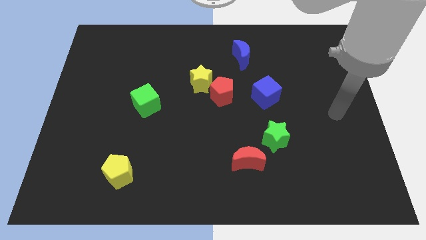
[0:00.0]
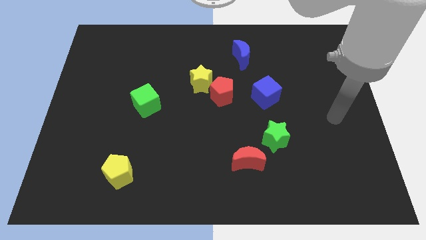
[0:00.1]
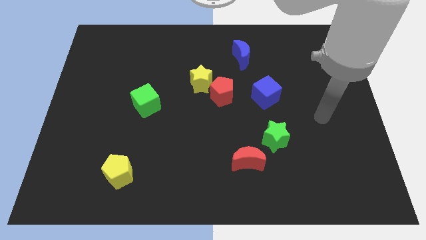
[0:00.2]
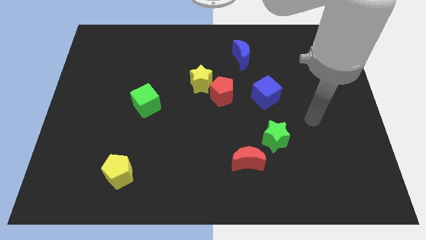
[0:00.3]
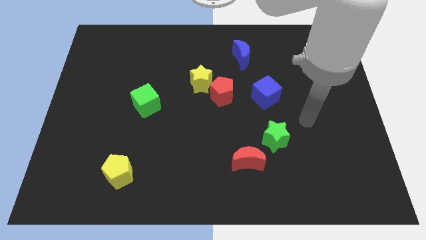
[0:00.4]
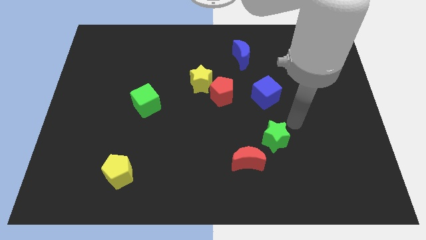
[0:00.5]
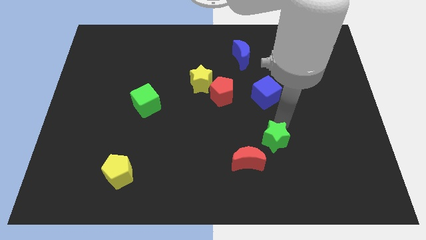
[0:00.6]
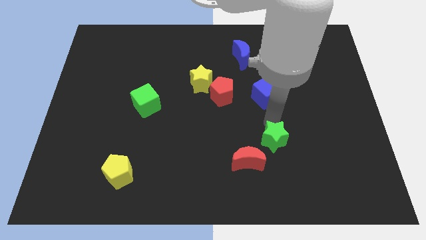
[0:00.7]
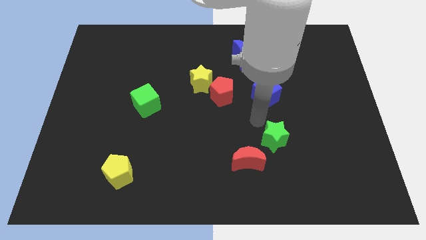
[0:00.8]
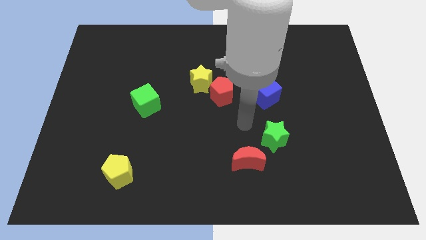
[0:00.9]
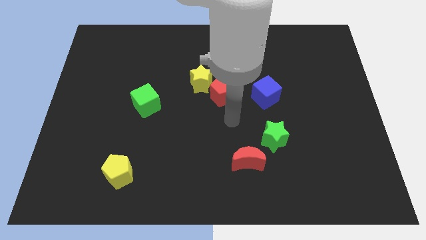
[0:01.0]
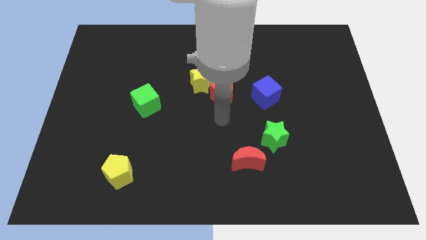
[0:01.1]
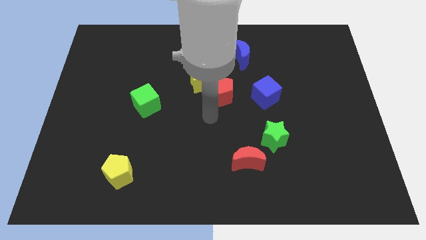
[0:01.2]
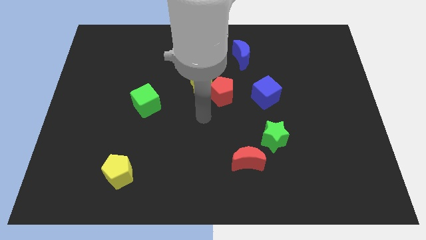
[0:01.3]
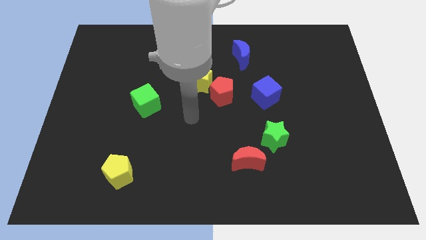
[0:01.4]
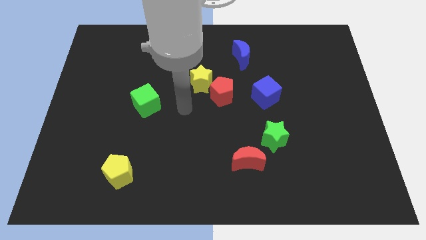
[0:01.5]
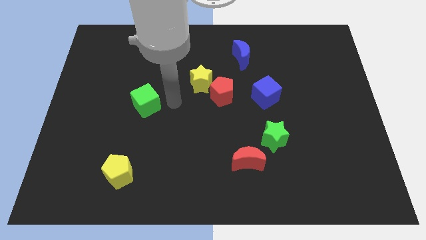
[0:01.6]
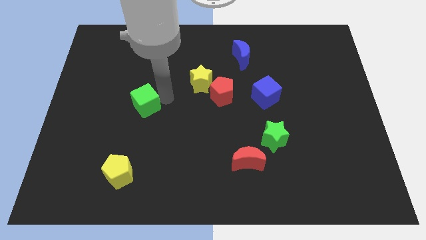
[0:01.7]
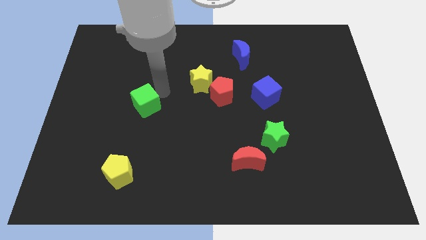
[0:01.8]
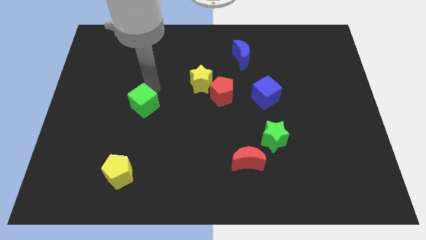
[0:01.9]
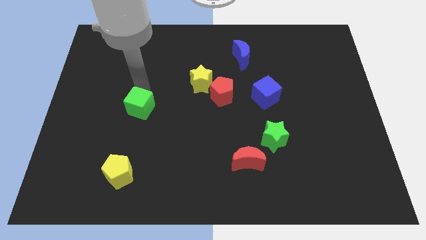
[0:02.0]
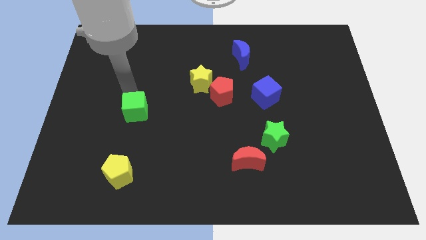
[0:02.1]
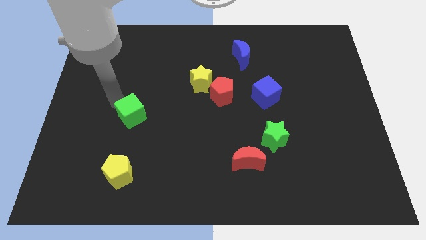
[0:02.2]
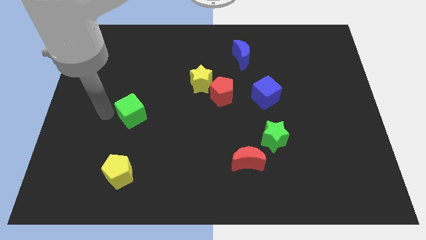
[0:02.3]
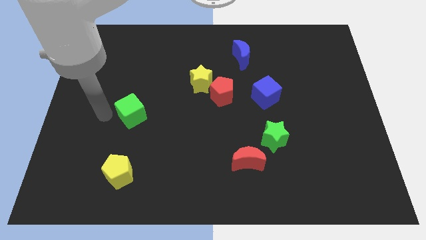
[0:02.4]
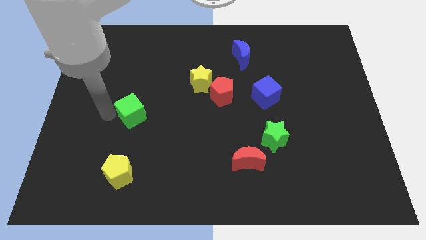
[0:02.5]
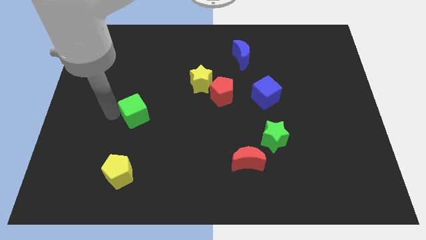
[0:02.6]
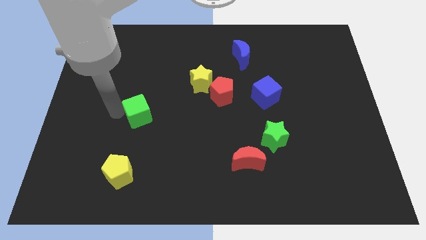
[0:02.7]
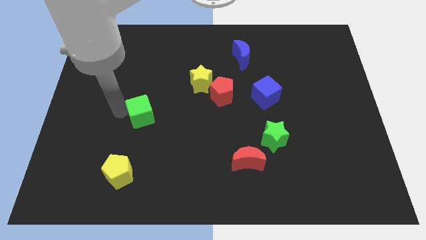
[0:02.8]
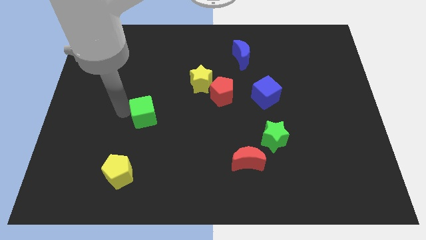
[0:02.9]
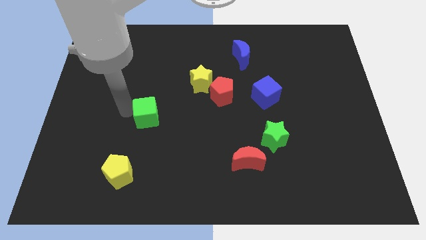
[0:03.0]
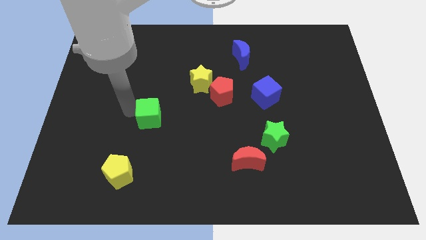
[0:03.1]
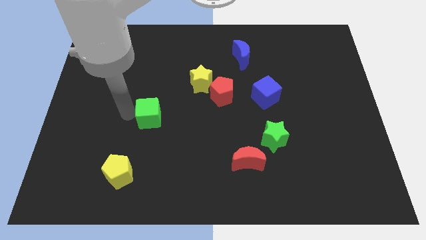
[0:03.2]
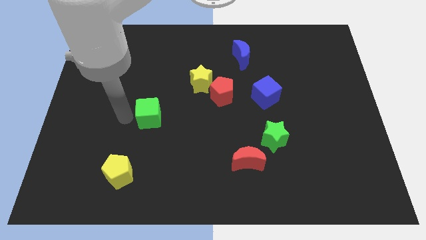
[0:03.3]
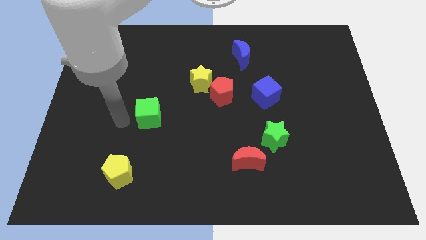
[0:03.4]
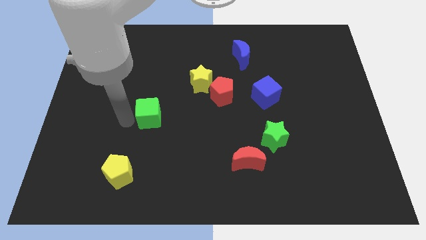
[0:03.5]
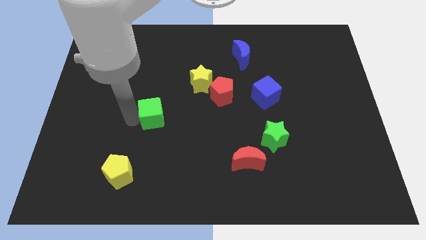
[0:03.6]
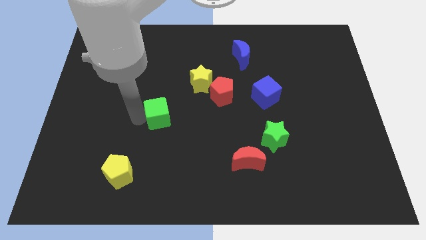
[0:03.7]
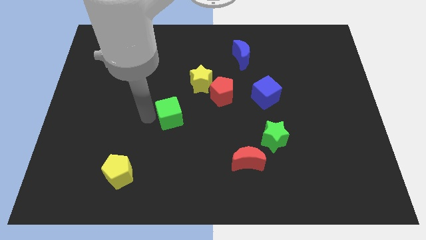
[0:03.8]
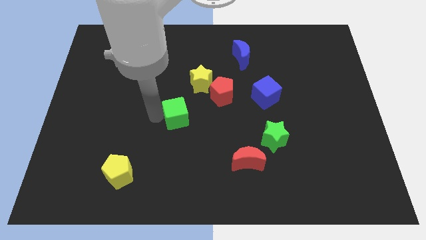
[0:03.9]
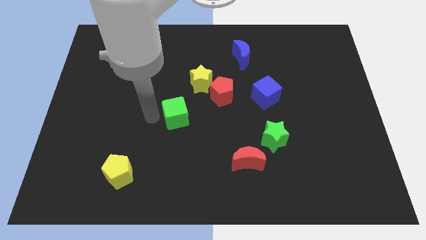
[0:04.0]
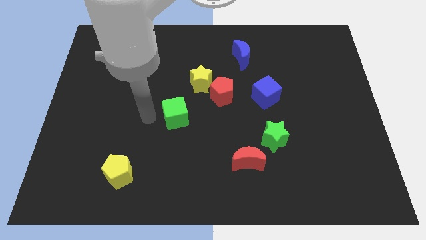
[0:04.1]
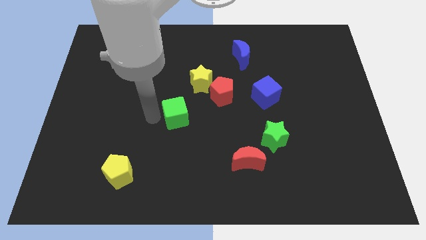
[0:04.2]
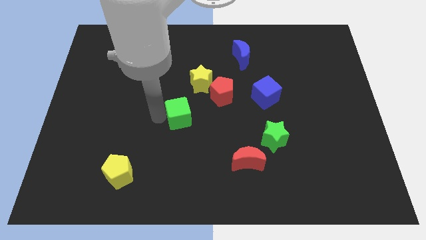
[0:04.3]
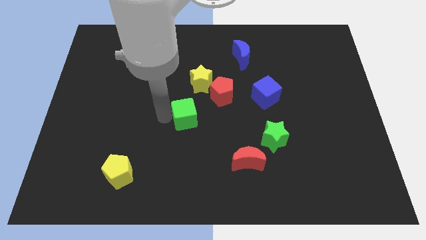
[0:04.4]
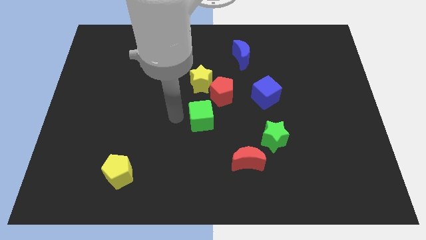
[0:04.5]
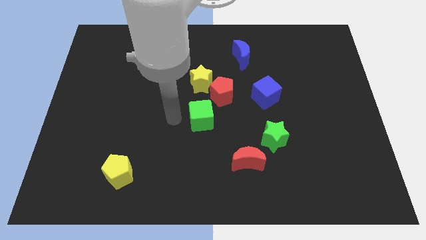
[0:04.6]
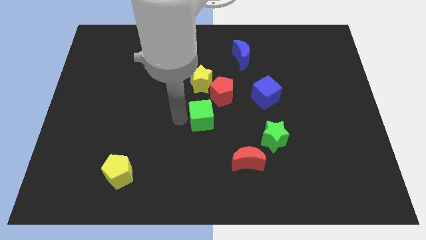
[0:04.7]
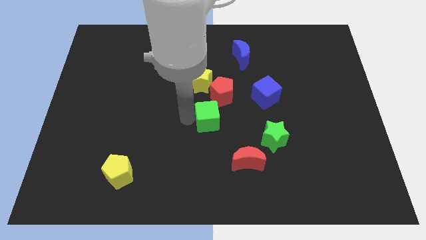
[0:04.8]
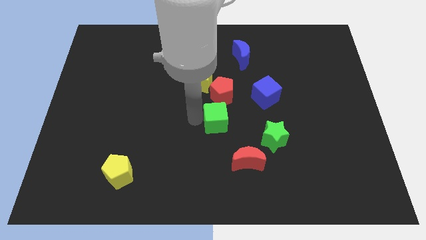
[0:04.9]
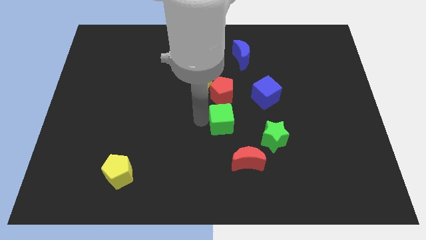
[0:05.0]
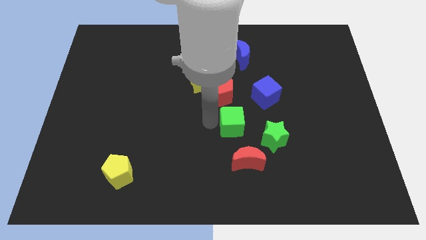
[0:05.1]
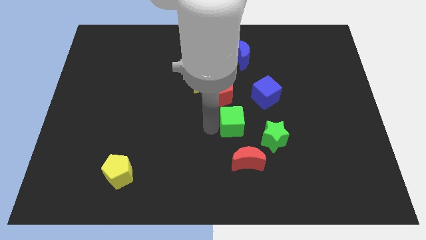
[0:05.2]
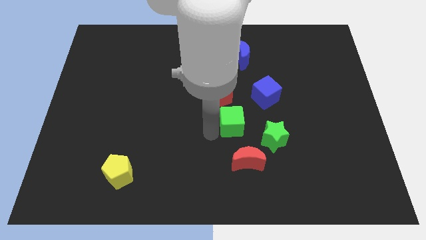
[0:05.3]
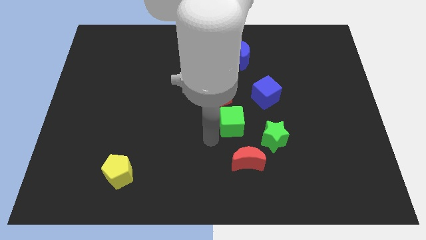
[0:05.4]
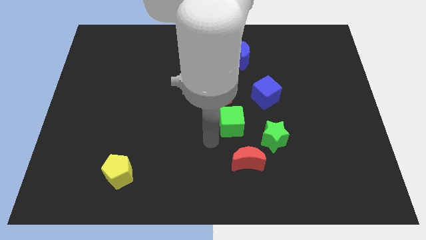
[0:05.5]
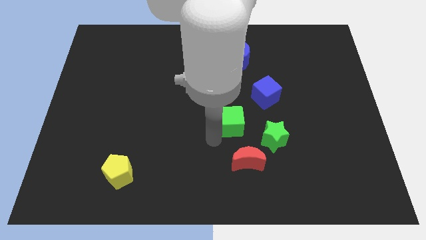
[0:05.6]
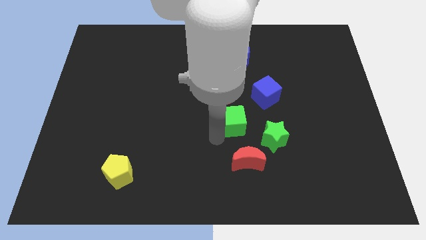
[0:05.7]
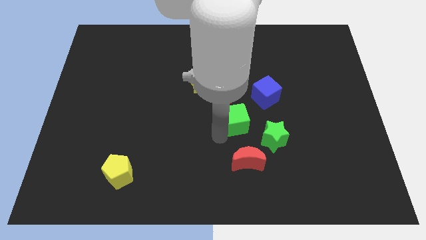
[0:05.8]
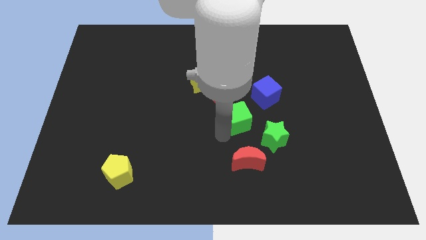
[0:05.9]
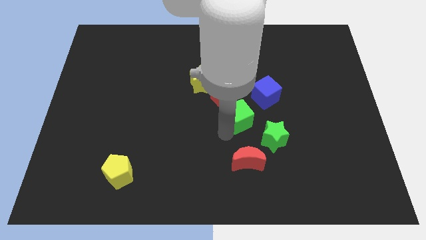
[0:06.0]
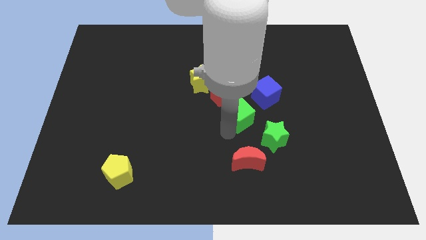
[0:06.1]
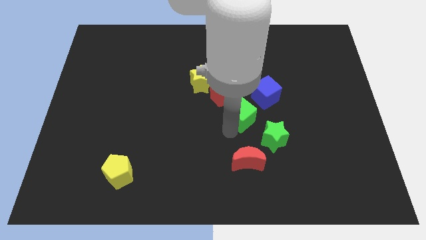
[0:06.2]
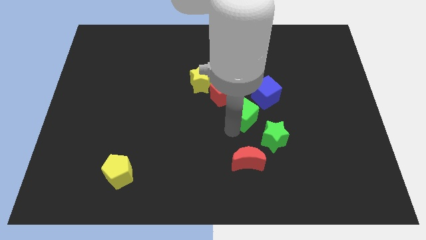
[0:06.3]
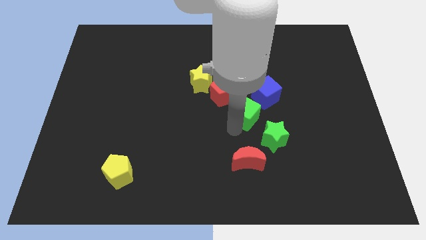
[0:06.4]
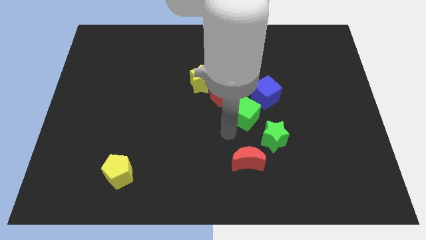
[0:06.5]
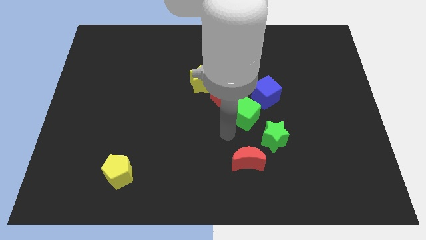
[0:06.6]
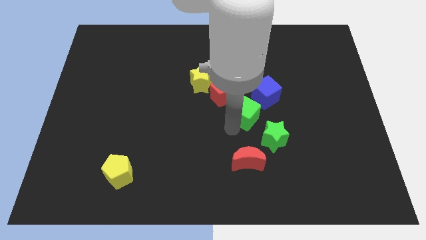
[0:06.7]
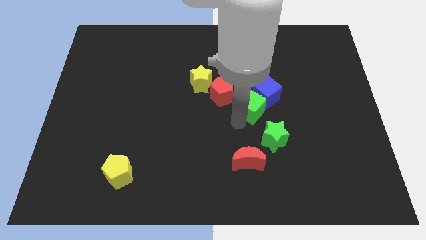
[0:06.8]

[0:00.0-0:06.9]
slide the green cube towards the blue cube
